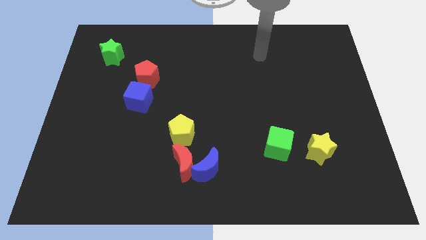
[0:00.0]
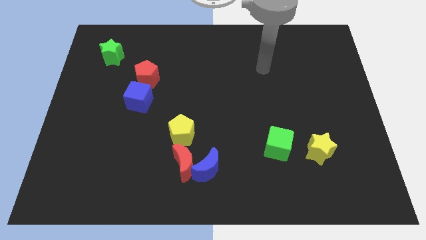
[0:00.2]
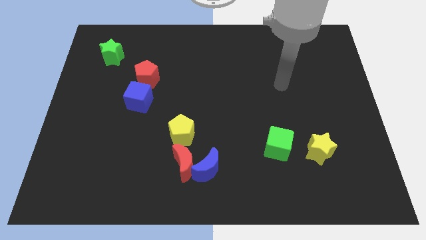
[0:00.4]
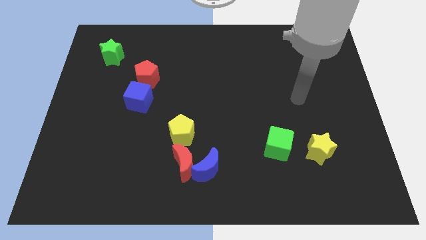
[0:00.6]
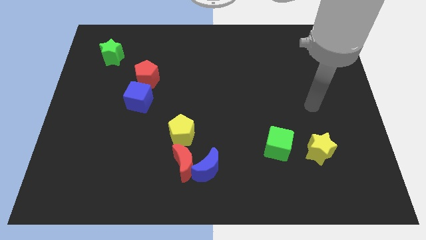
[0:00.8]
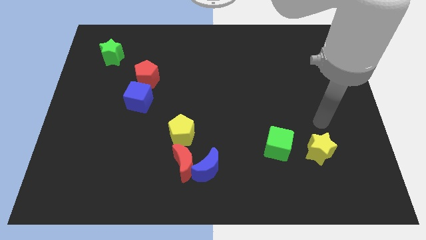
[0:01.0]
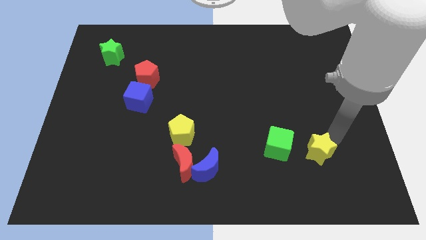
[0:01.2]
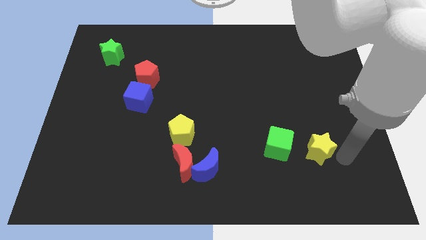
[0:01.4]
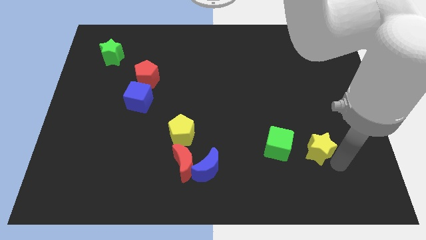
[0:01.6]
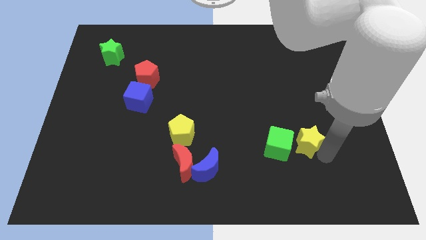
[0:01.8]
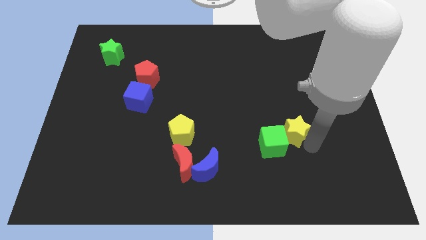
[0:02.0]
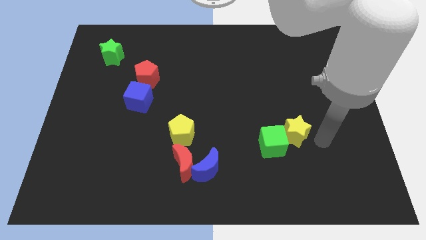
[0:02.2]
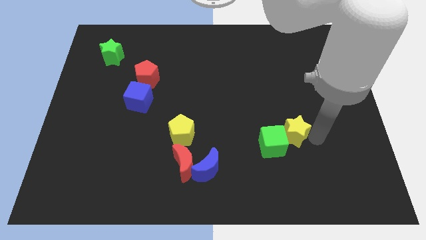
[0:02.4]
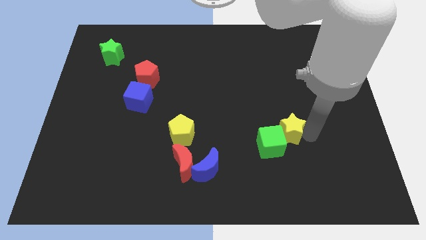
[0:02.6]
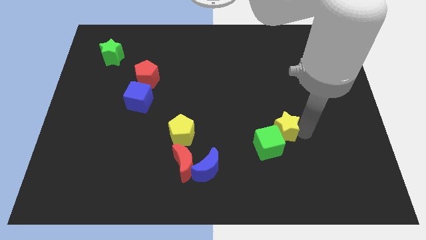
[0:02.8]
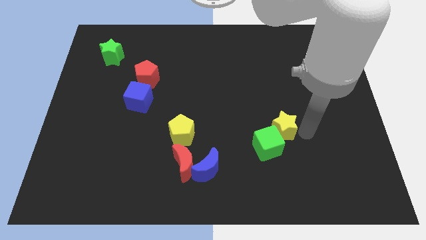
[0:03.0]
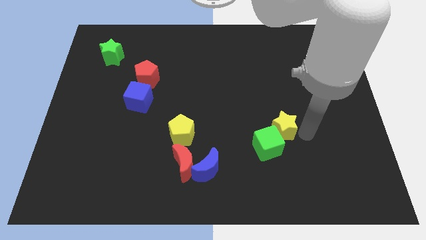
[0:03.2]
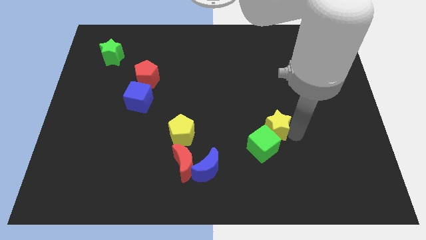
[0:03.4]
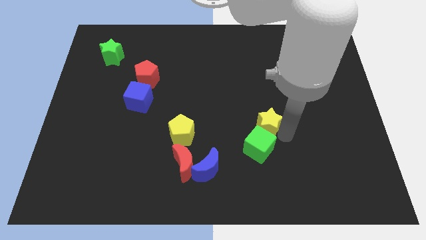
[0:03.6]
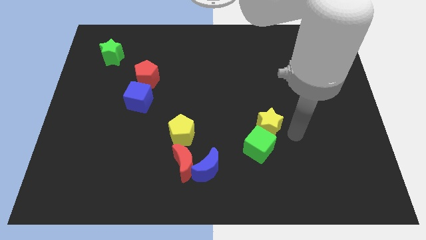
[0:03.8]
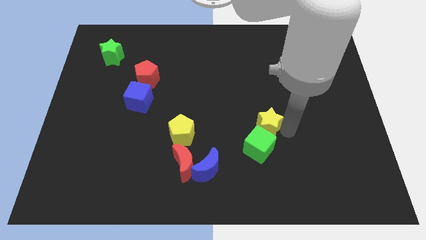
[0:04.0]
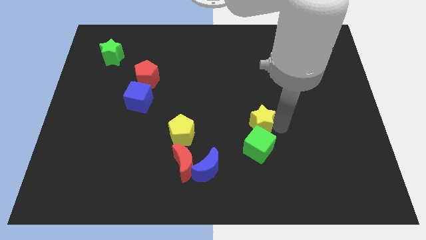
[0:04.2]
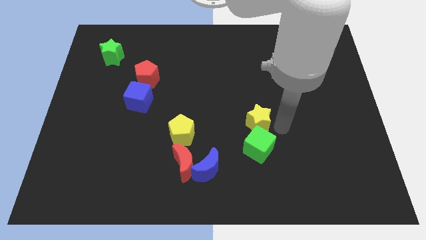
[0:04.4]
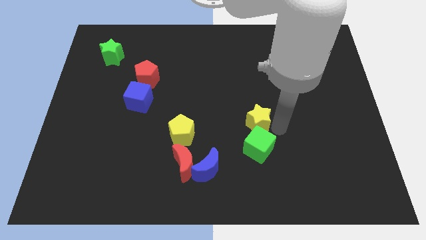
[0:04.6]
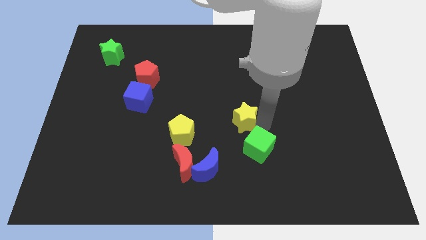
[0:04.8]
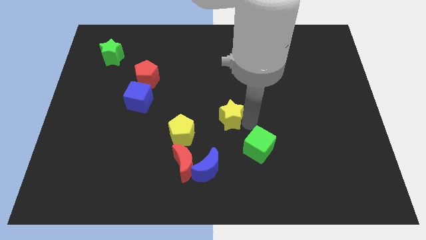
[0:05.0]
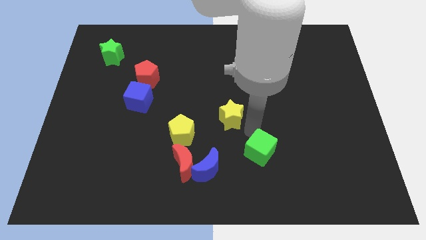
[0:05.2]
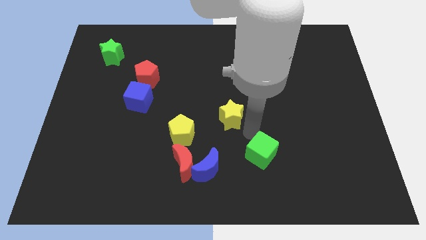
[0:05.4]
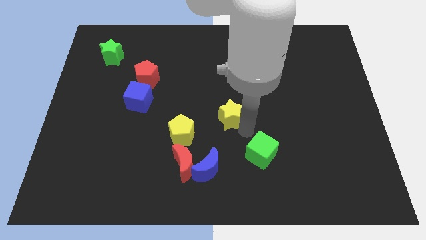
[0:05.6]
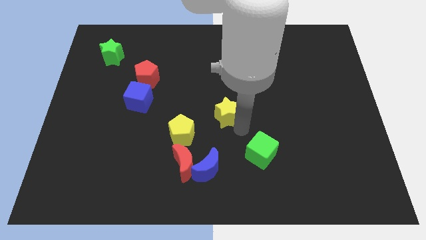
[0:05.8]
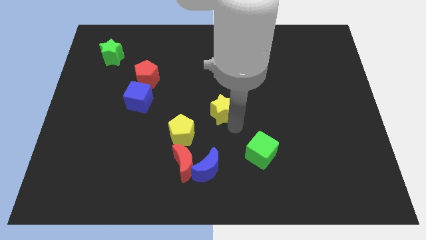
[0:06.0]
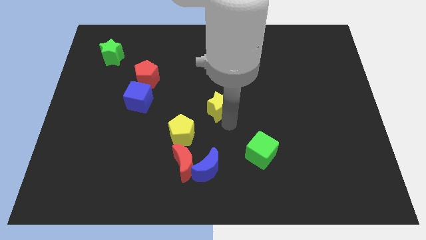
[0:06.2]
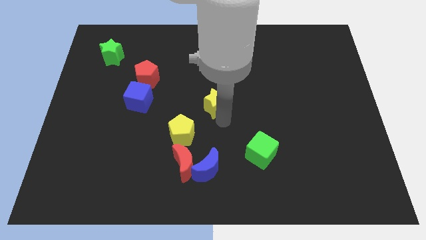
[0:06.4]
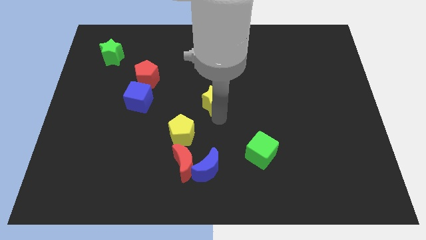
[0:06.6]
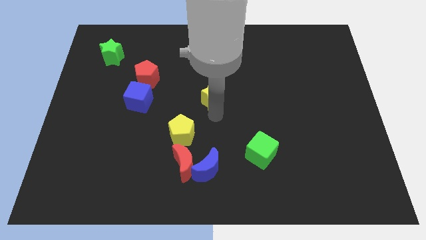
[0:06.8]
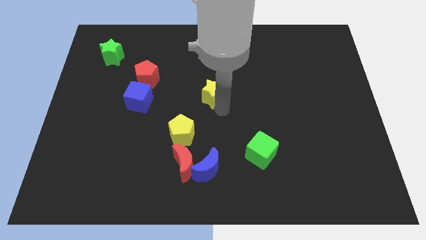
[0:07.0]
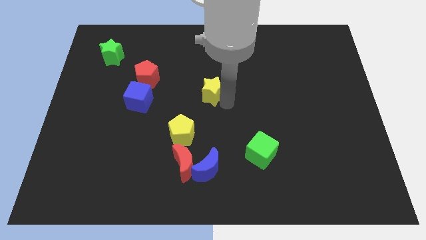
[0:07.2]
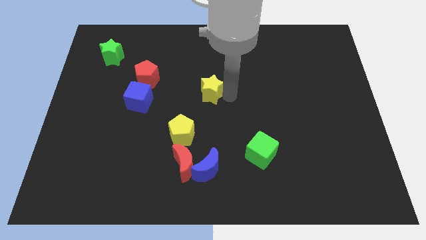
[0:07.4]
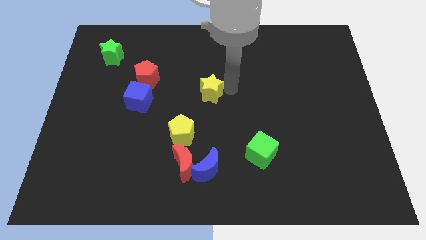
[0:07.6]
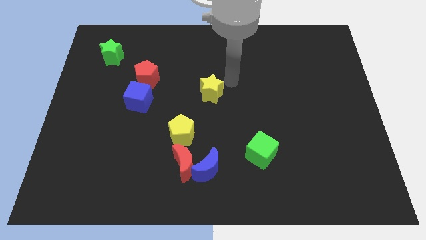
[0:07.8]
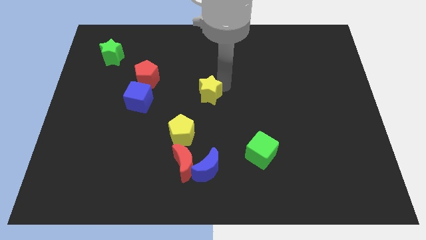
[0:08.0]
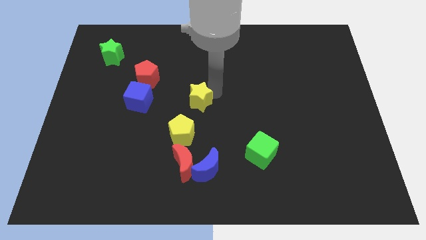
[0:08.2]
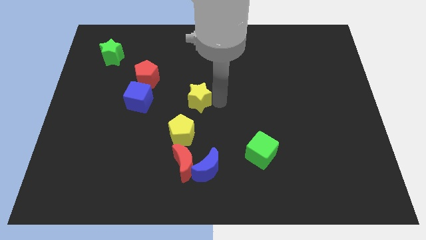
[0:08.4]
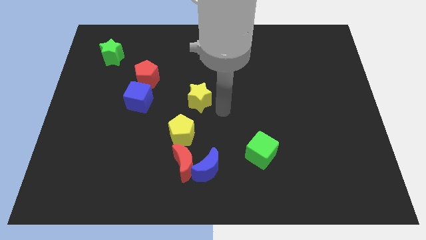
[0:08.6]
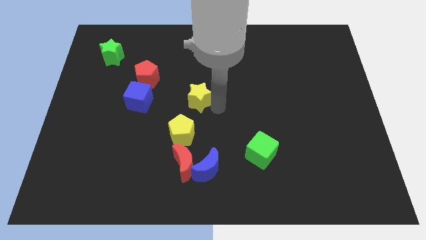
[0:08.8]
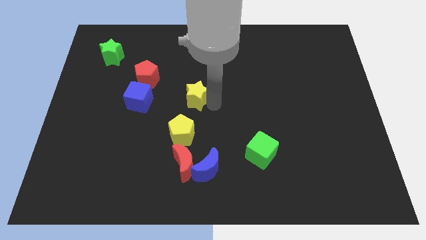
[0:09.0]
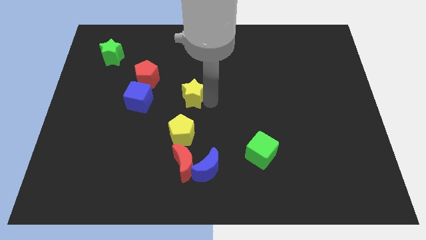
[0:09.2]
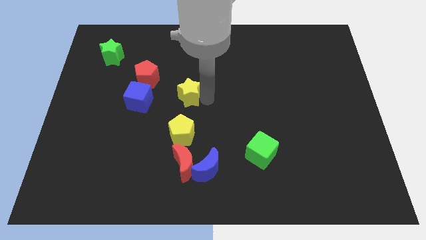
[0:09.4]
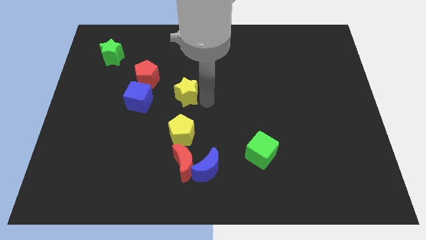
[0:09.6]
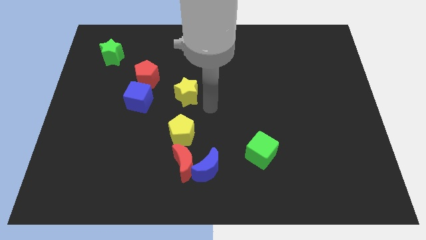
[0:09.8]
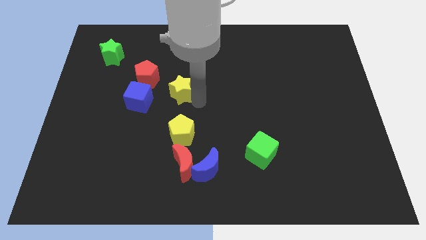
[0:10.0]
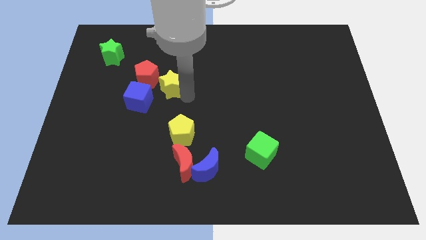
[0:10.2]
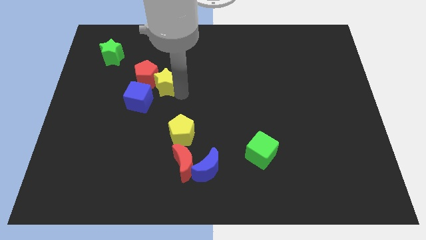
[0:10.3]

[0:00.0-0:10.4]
move the yellow star next to the red pentagon

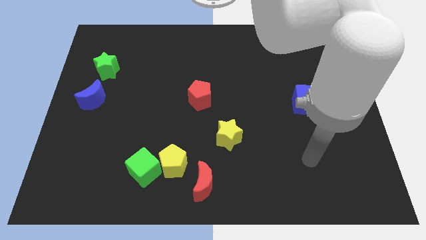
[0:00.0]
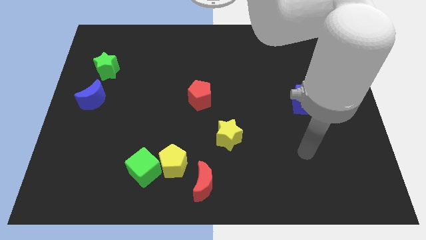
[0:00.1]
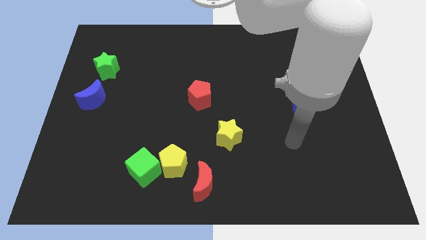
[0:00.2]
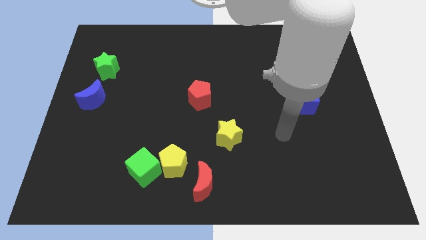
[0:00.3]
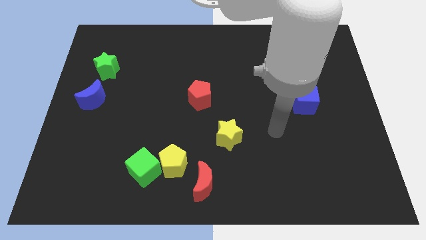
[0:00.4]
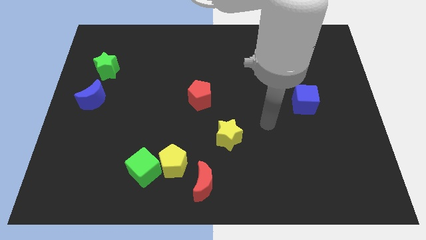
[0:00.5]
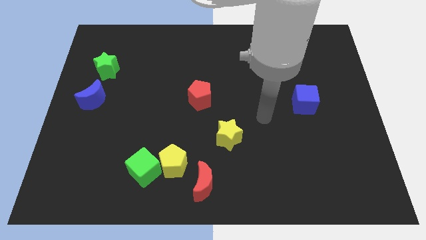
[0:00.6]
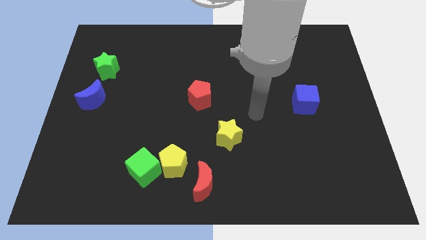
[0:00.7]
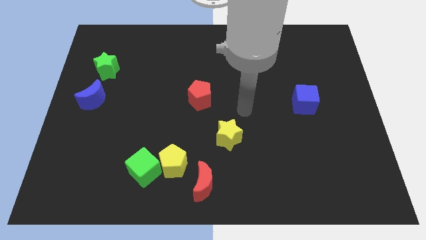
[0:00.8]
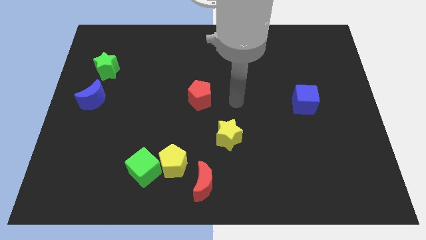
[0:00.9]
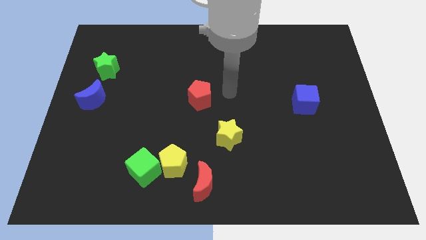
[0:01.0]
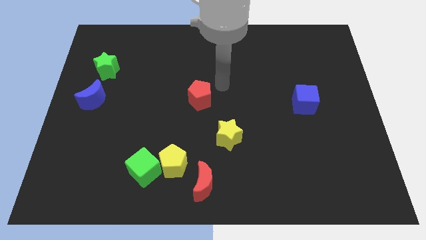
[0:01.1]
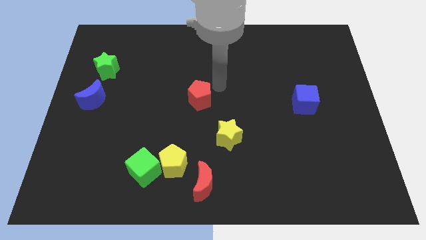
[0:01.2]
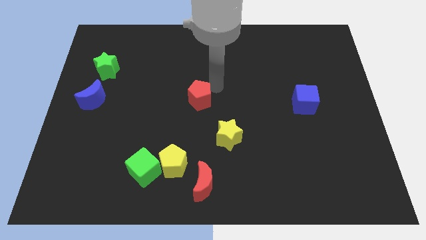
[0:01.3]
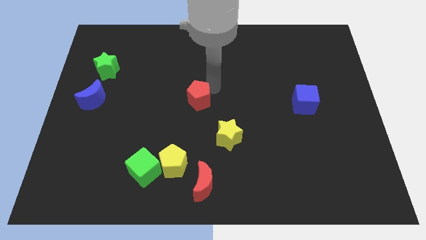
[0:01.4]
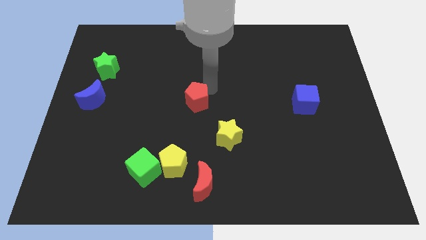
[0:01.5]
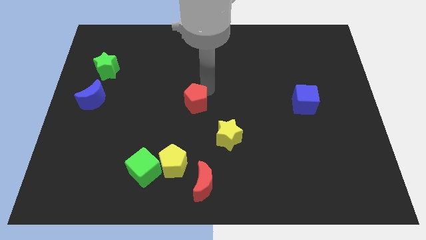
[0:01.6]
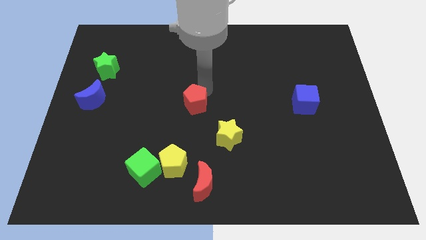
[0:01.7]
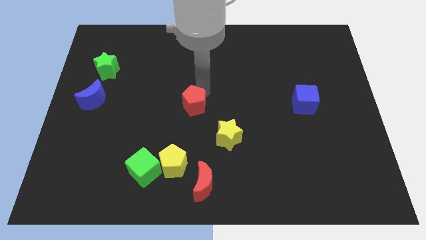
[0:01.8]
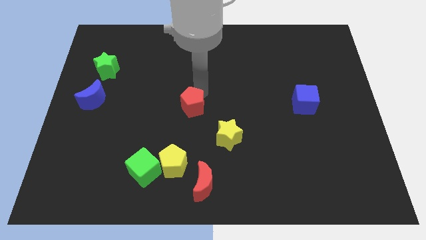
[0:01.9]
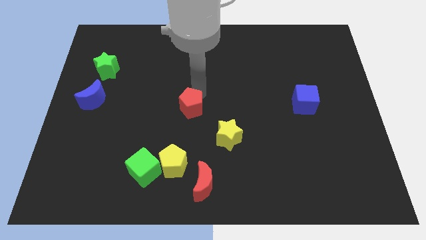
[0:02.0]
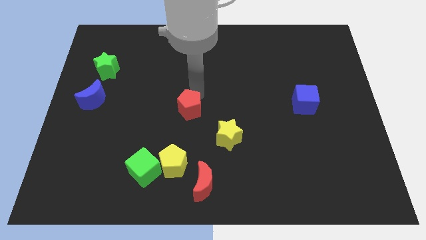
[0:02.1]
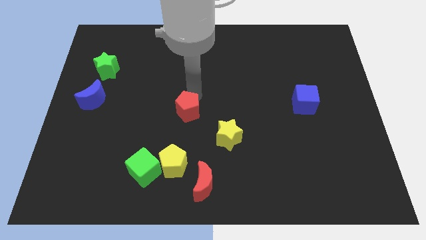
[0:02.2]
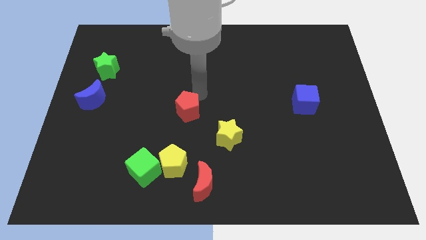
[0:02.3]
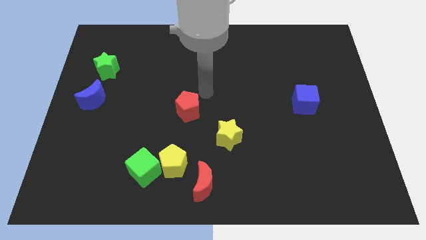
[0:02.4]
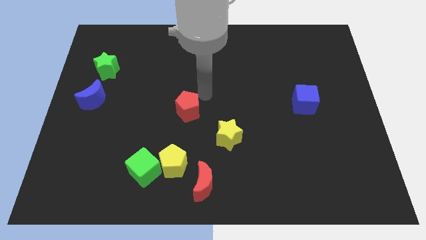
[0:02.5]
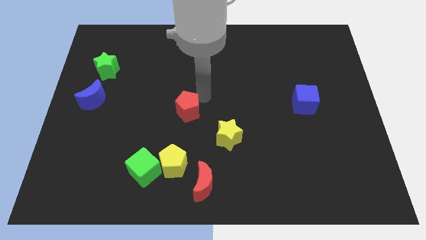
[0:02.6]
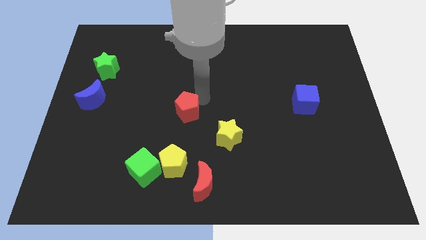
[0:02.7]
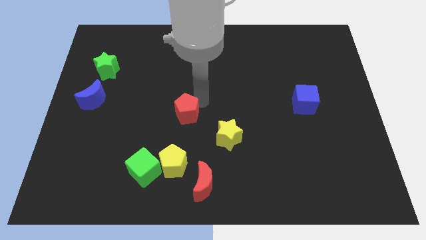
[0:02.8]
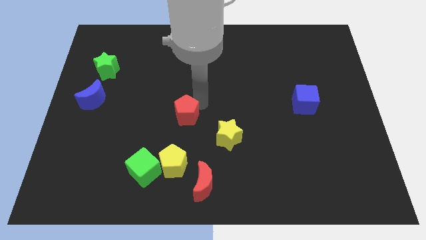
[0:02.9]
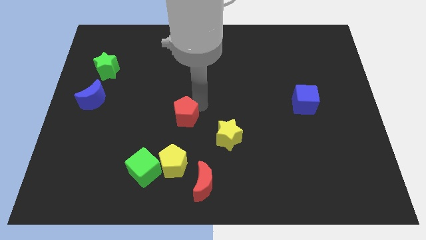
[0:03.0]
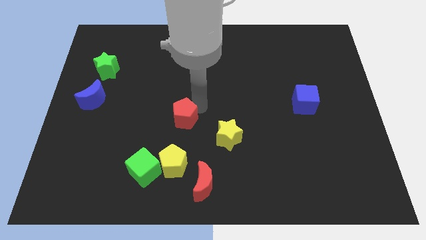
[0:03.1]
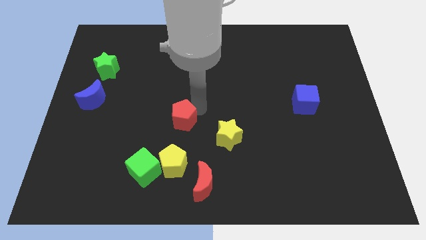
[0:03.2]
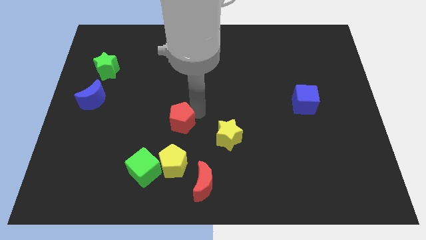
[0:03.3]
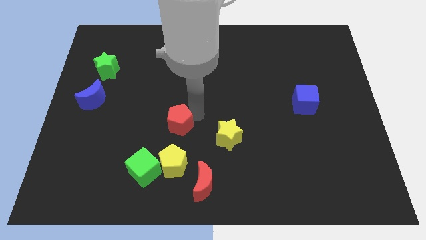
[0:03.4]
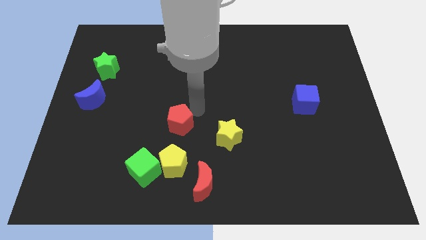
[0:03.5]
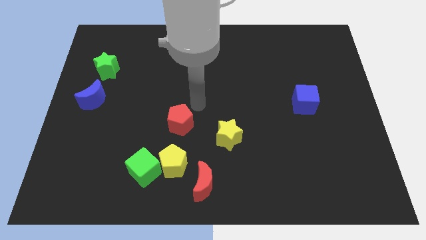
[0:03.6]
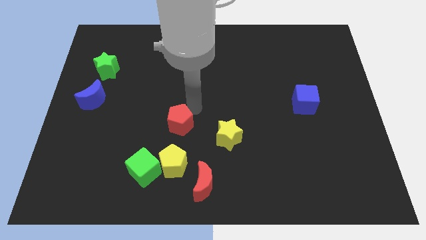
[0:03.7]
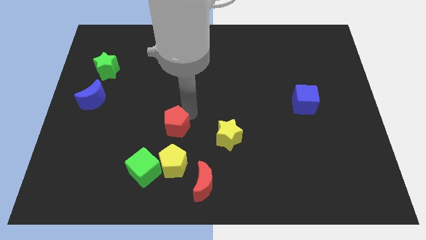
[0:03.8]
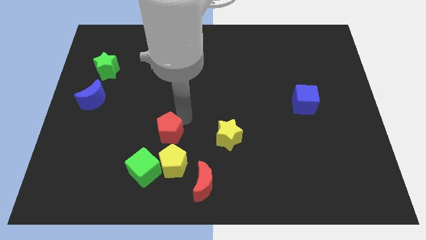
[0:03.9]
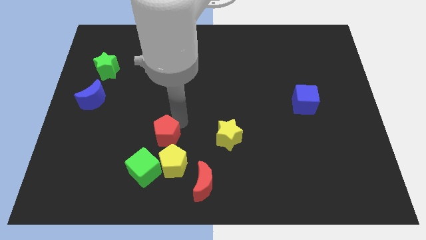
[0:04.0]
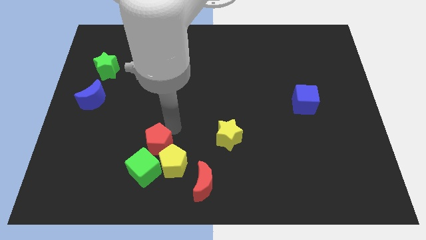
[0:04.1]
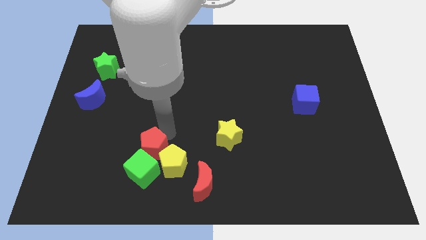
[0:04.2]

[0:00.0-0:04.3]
move the red pentagon towards the green cube
